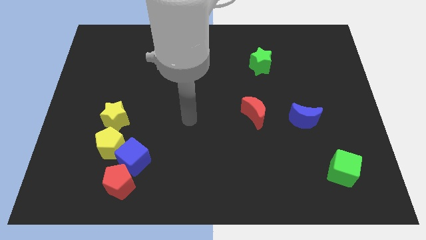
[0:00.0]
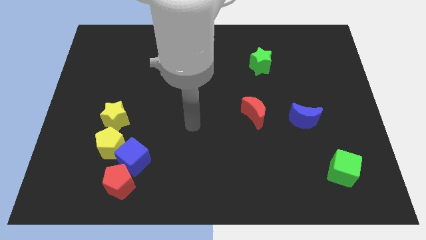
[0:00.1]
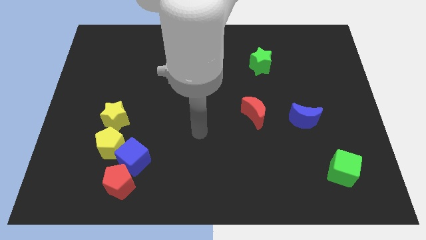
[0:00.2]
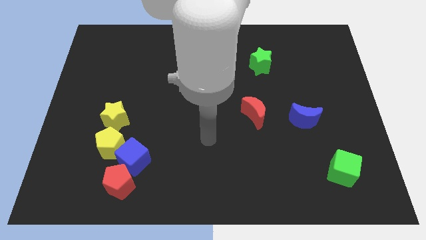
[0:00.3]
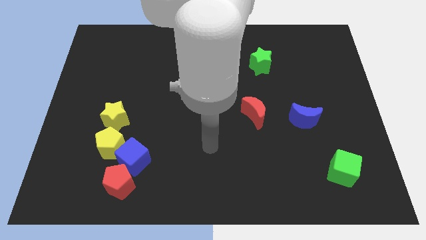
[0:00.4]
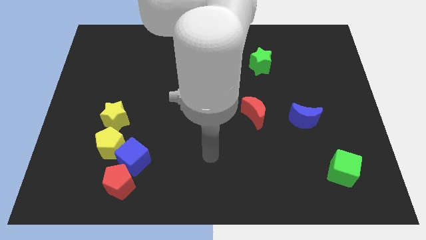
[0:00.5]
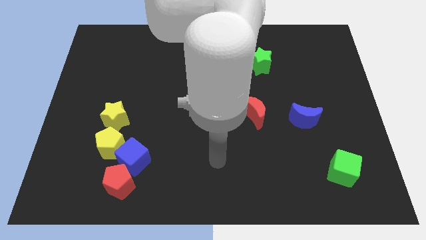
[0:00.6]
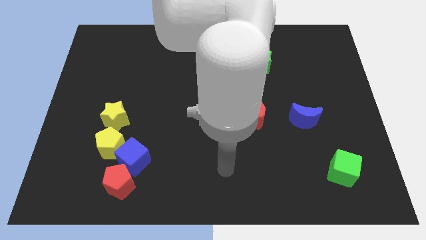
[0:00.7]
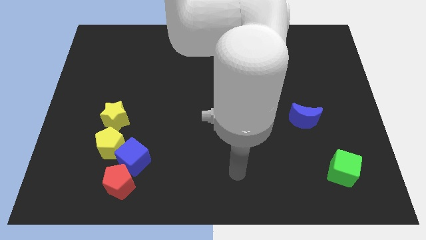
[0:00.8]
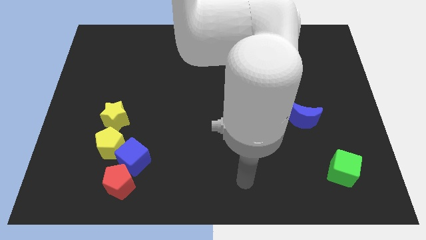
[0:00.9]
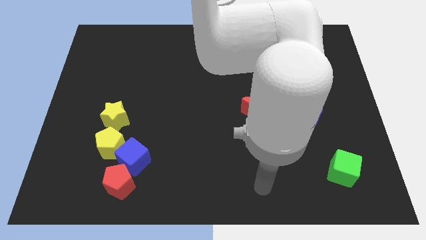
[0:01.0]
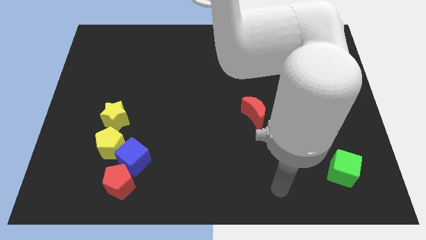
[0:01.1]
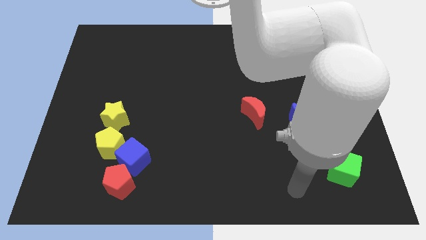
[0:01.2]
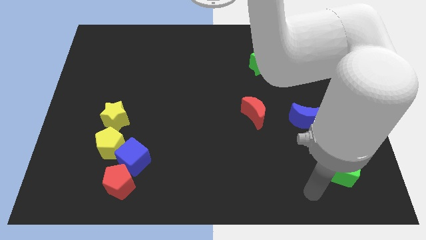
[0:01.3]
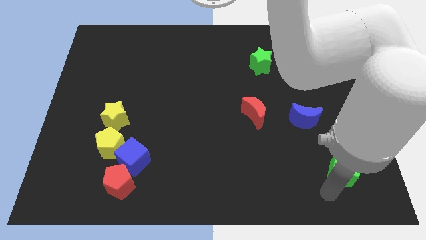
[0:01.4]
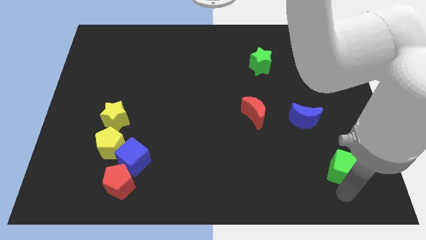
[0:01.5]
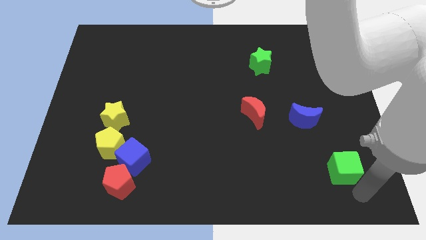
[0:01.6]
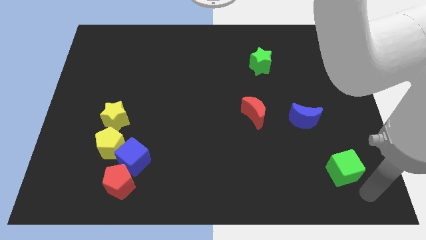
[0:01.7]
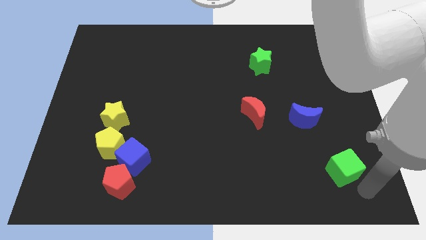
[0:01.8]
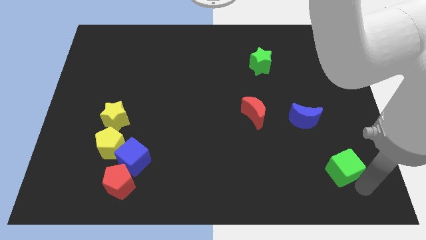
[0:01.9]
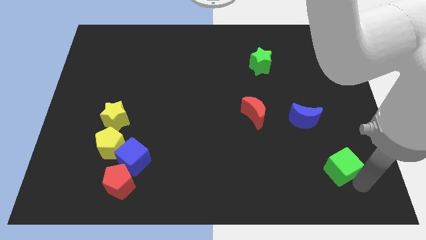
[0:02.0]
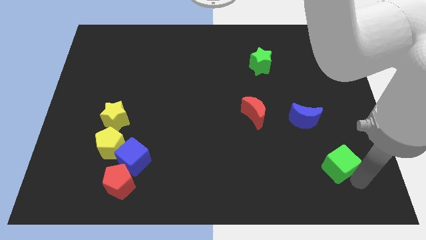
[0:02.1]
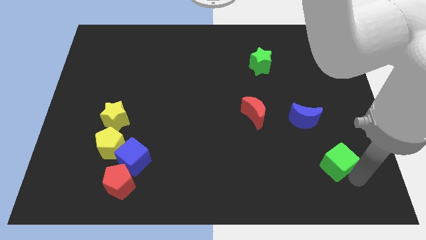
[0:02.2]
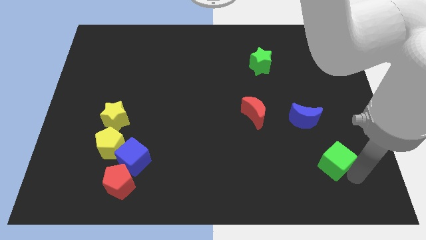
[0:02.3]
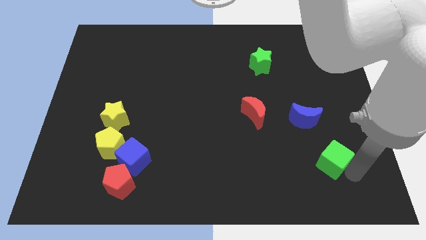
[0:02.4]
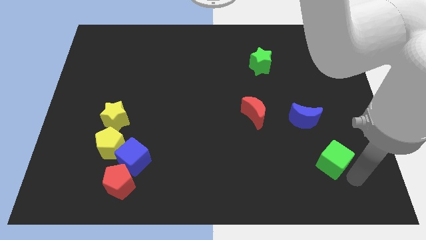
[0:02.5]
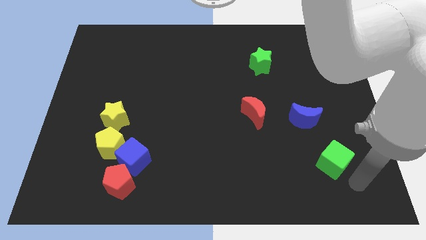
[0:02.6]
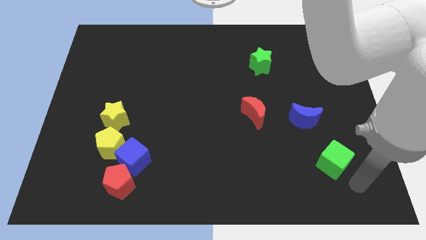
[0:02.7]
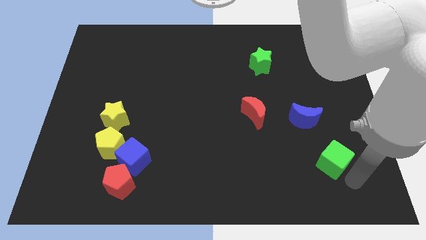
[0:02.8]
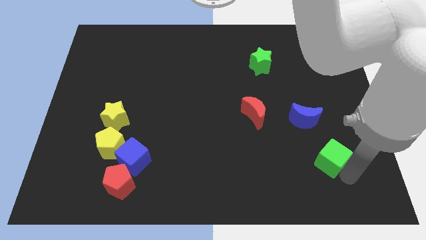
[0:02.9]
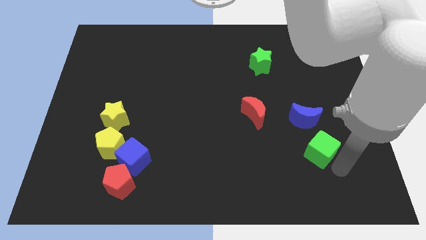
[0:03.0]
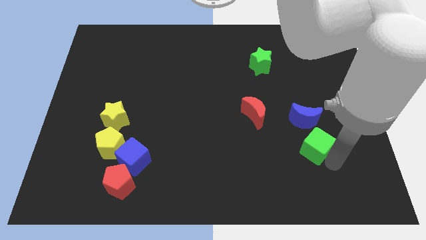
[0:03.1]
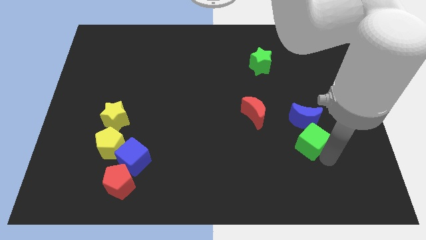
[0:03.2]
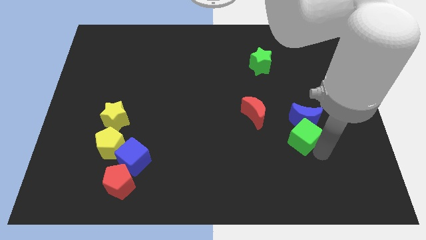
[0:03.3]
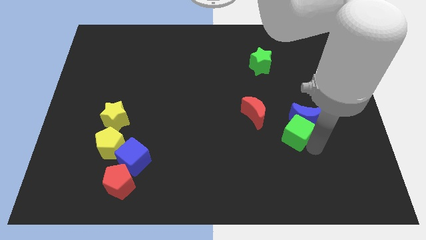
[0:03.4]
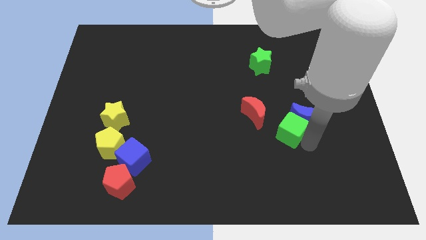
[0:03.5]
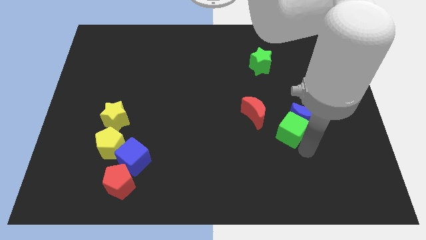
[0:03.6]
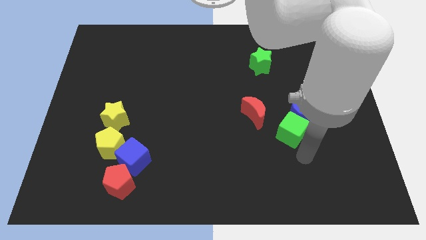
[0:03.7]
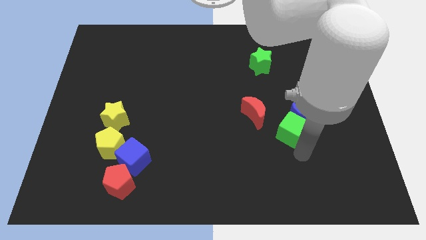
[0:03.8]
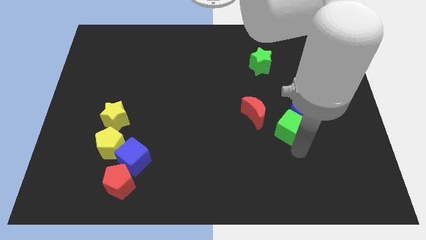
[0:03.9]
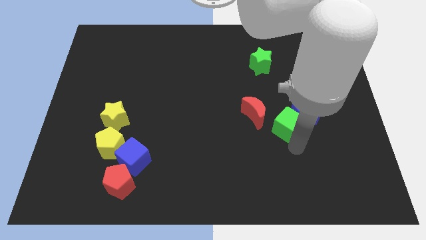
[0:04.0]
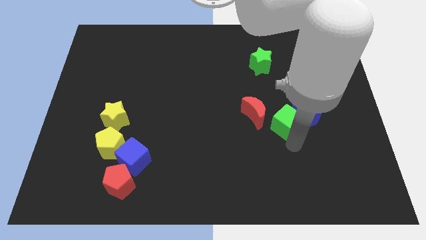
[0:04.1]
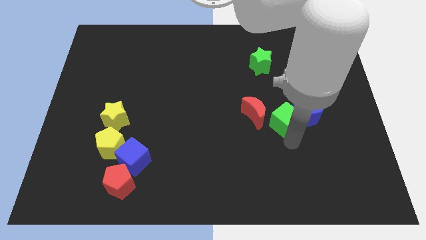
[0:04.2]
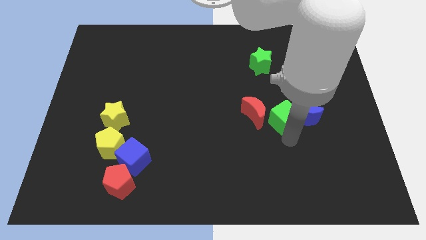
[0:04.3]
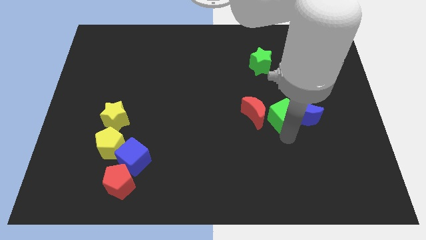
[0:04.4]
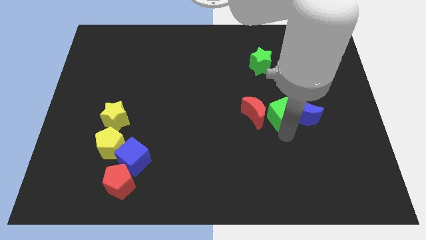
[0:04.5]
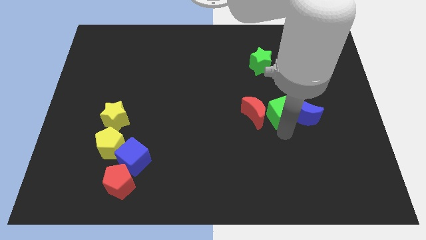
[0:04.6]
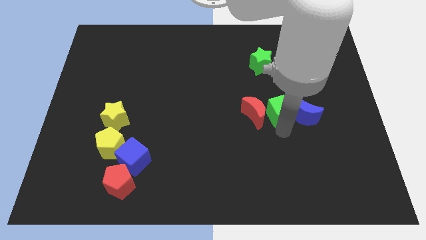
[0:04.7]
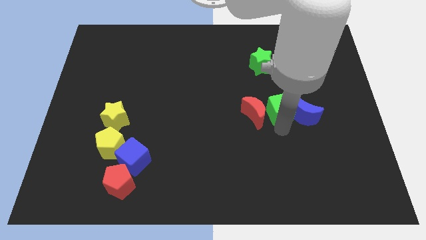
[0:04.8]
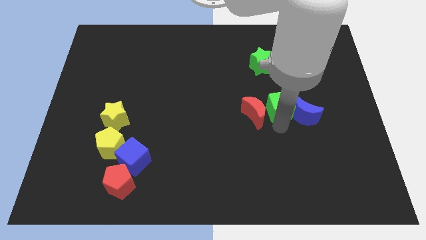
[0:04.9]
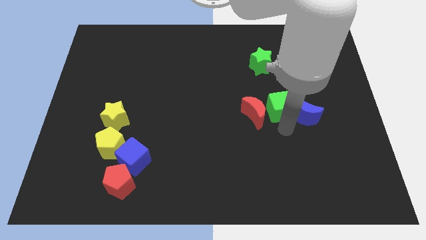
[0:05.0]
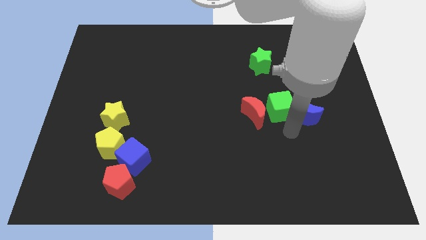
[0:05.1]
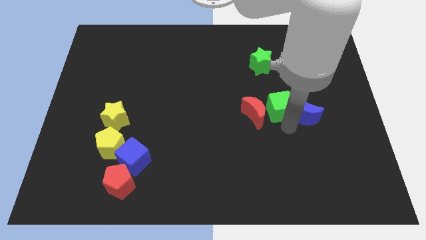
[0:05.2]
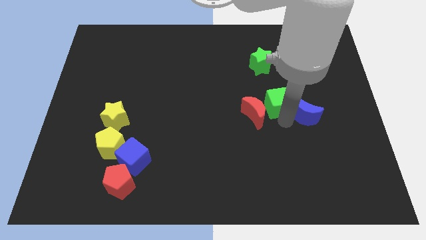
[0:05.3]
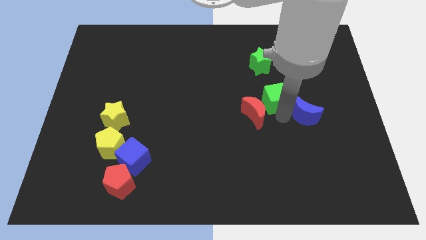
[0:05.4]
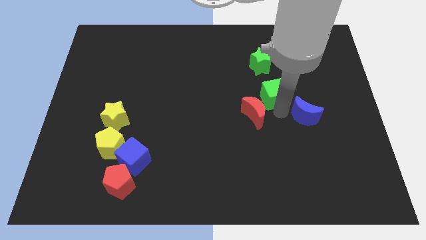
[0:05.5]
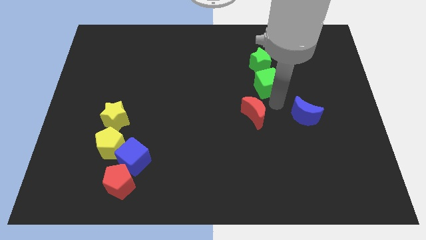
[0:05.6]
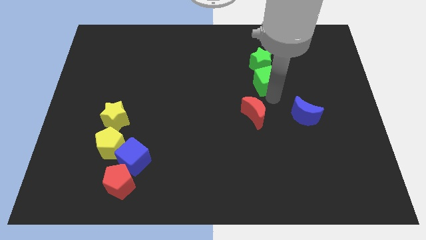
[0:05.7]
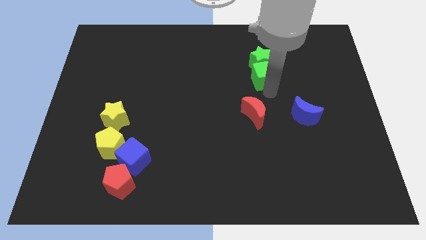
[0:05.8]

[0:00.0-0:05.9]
push the green cube next to the green star

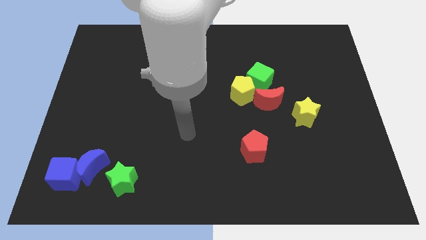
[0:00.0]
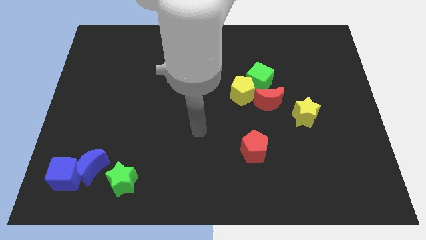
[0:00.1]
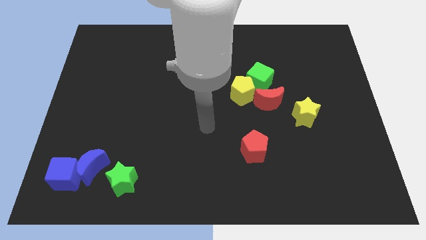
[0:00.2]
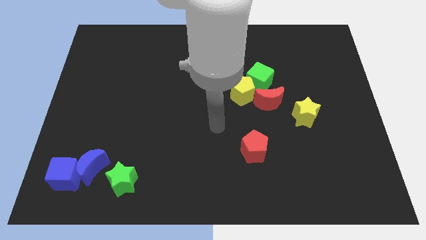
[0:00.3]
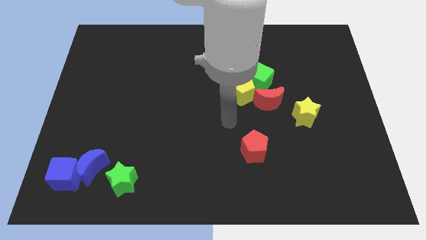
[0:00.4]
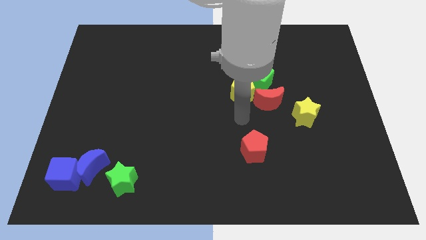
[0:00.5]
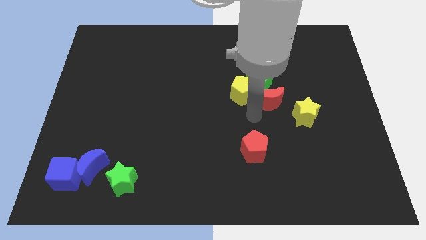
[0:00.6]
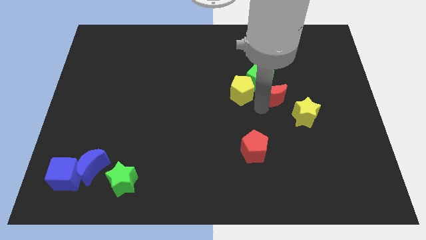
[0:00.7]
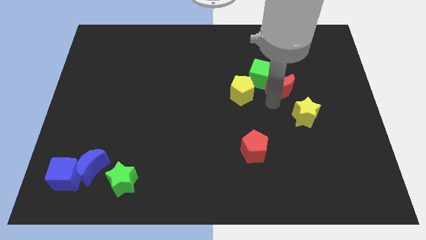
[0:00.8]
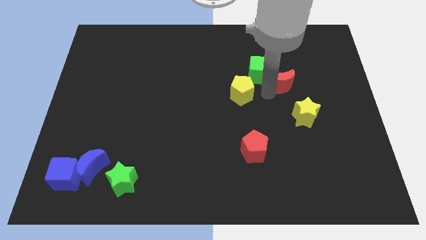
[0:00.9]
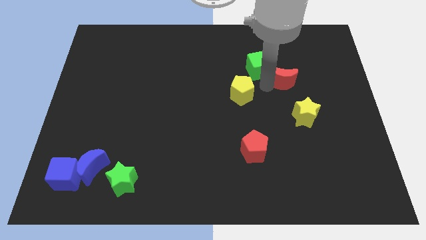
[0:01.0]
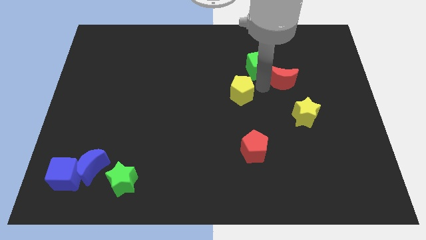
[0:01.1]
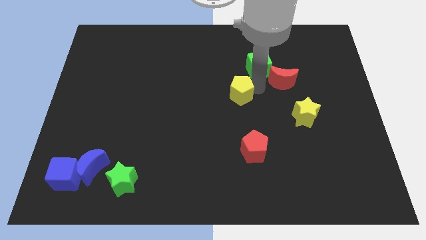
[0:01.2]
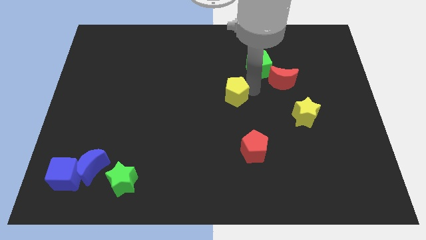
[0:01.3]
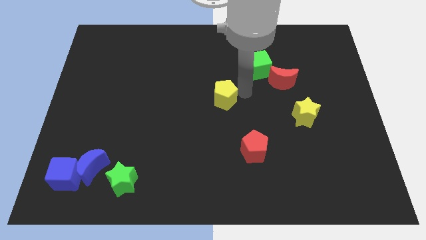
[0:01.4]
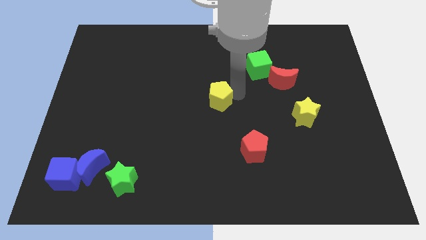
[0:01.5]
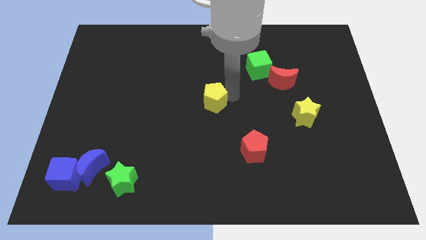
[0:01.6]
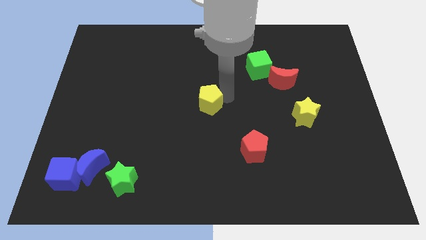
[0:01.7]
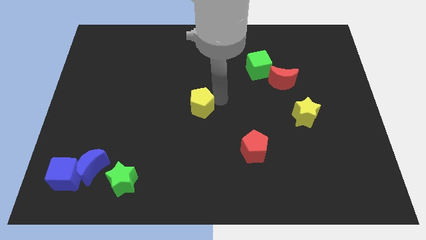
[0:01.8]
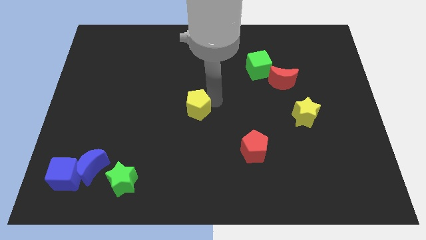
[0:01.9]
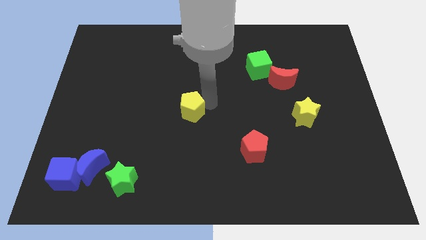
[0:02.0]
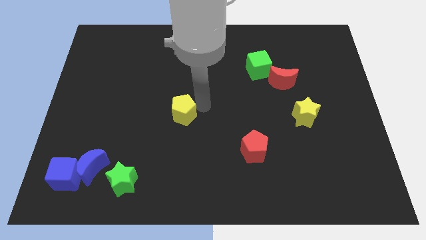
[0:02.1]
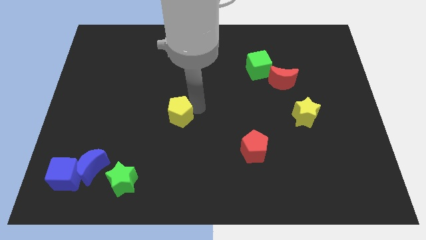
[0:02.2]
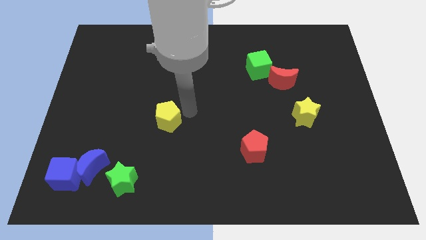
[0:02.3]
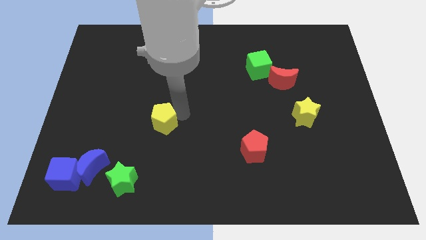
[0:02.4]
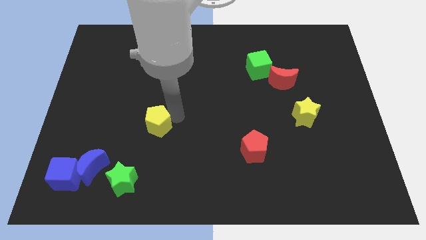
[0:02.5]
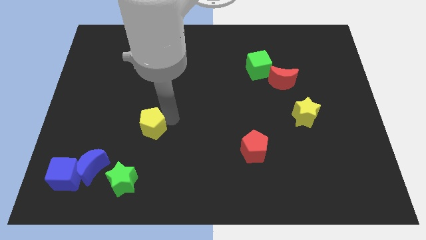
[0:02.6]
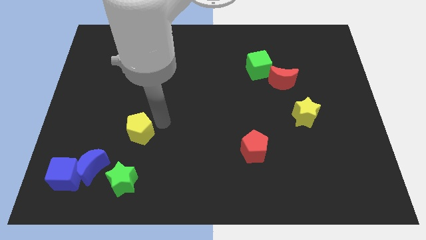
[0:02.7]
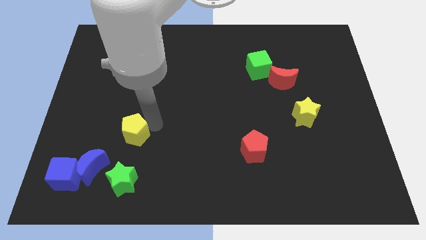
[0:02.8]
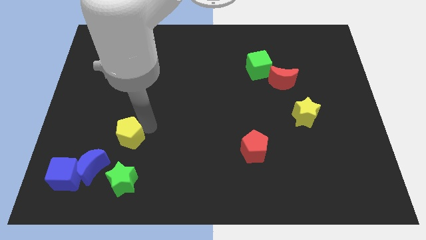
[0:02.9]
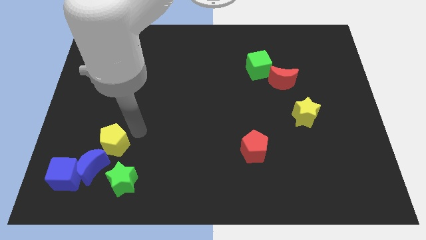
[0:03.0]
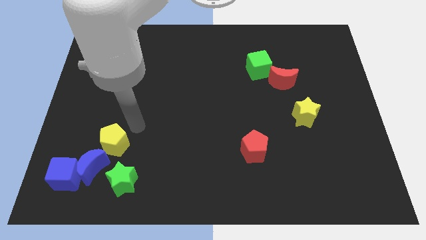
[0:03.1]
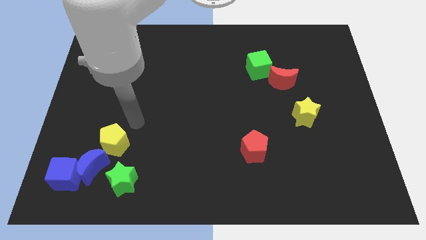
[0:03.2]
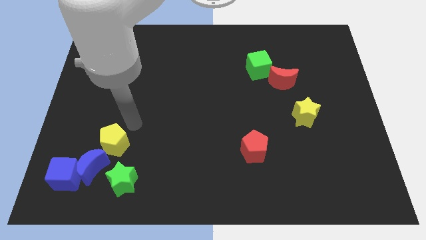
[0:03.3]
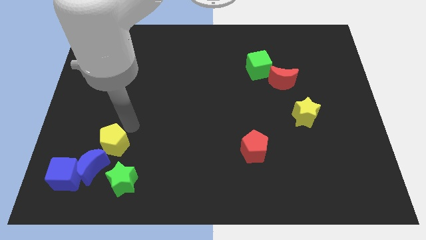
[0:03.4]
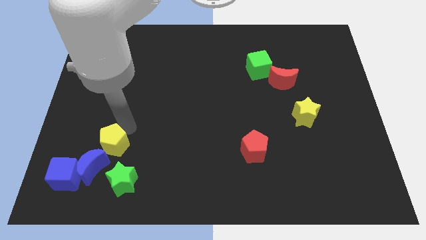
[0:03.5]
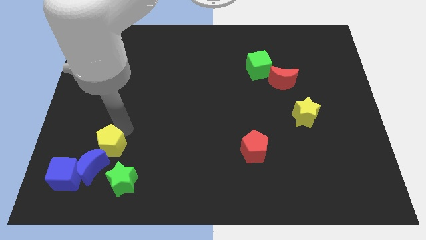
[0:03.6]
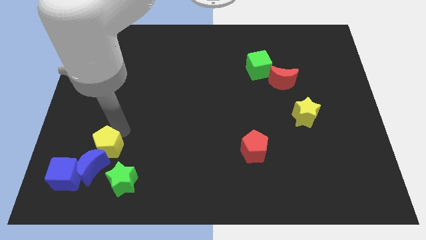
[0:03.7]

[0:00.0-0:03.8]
push the yellow pentagon towards the blue moon
